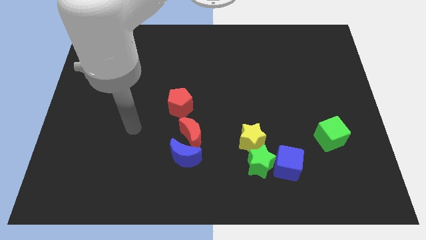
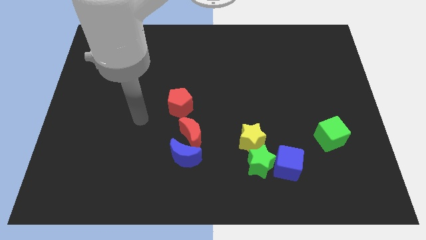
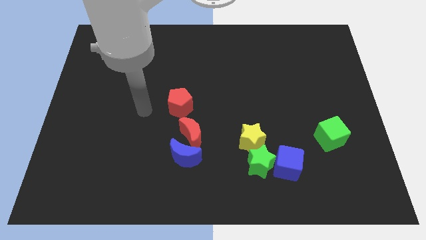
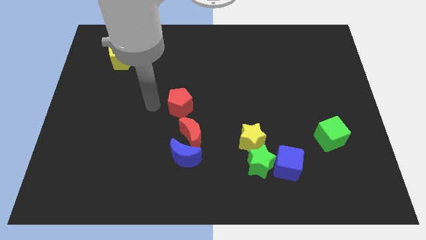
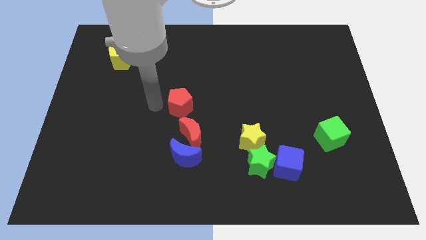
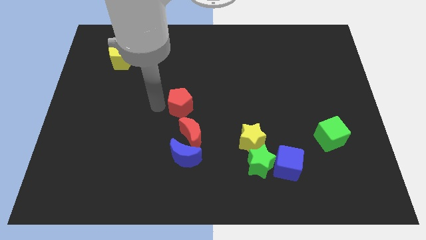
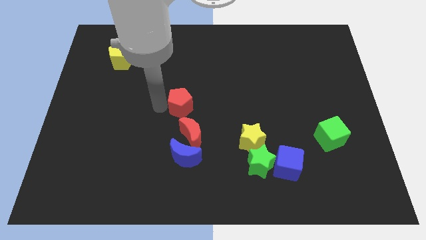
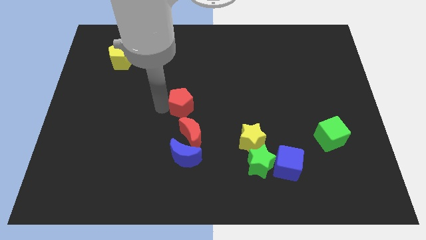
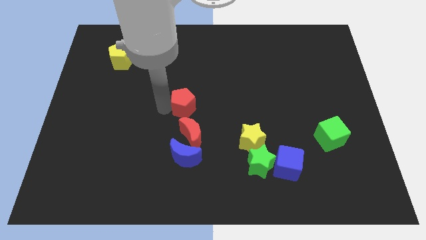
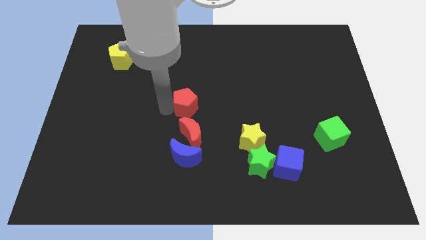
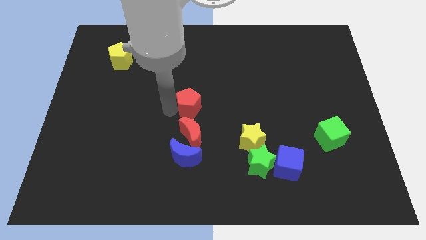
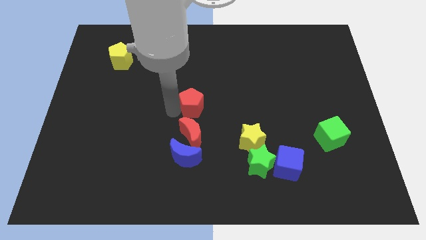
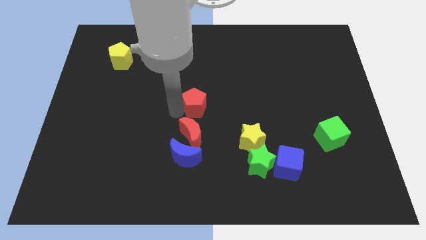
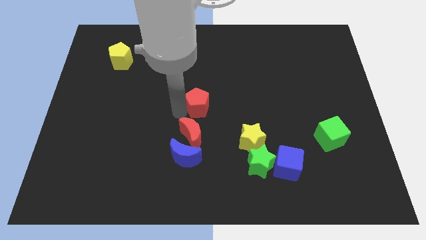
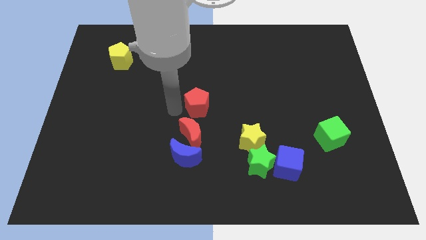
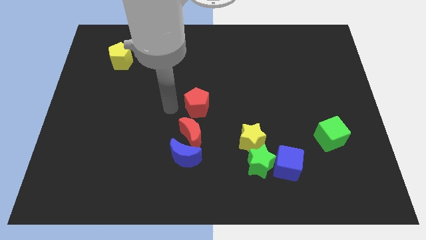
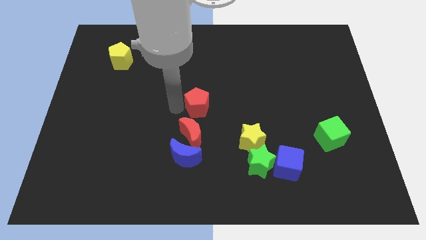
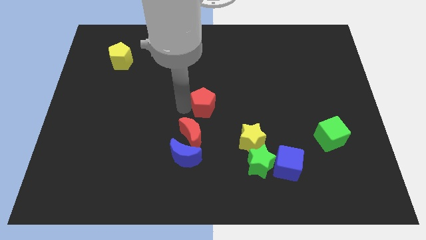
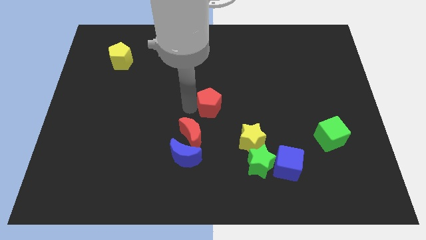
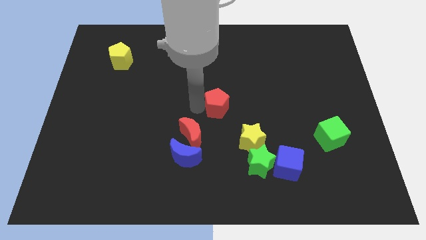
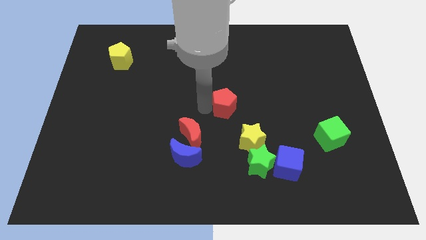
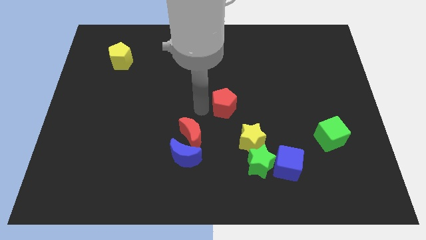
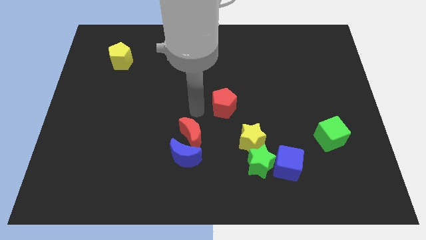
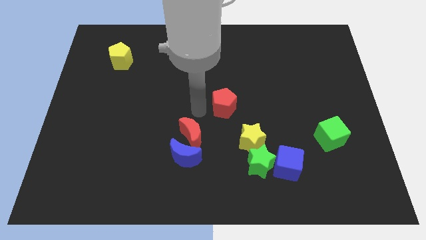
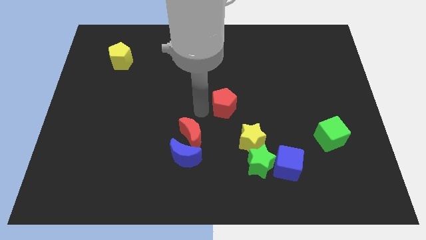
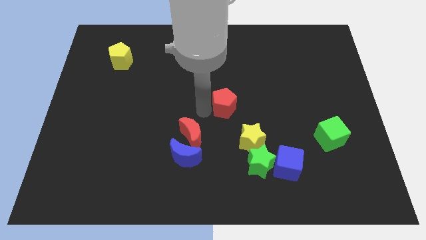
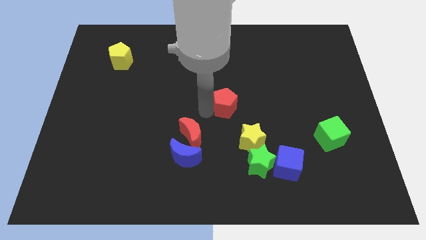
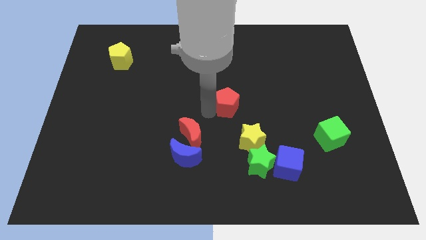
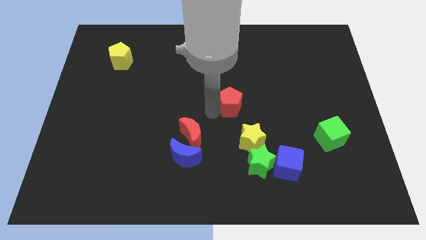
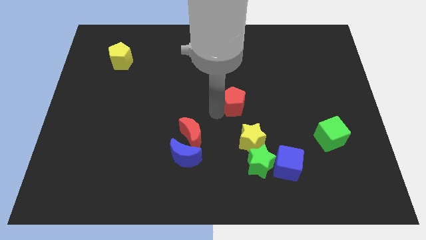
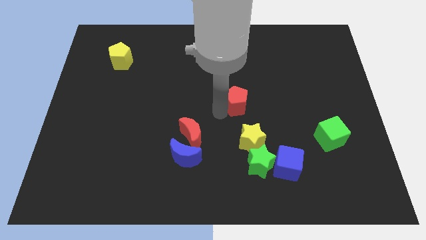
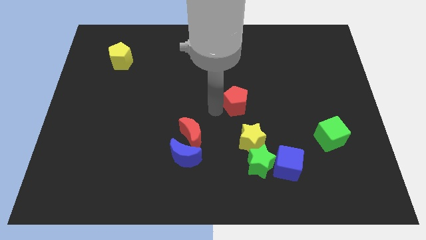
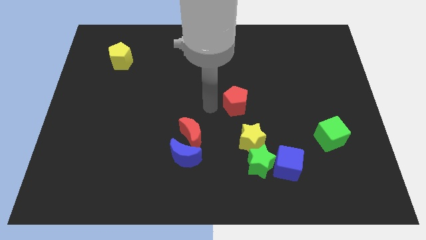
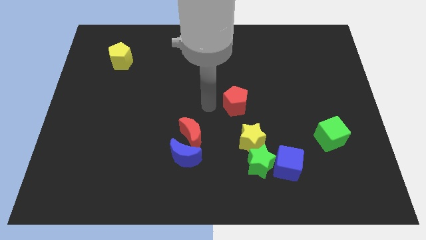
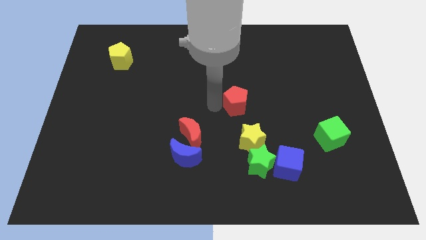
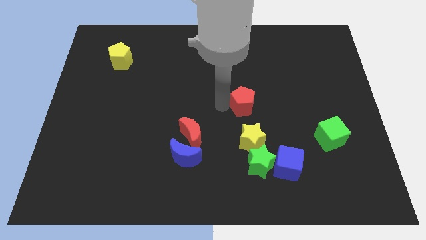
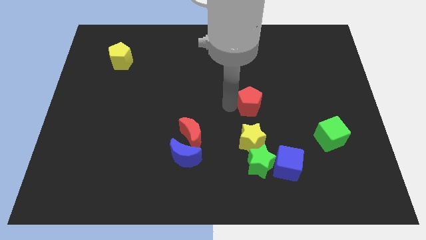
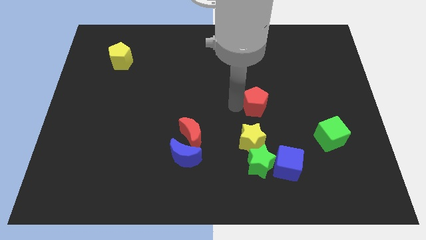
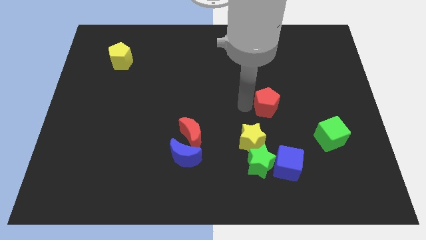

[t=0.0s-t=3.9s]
slide the red pentagon right

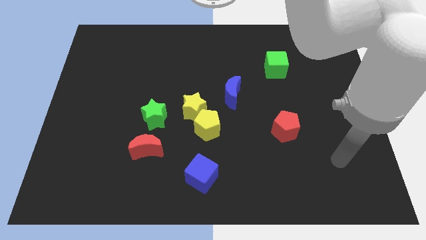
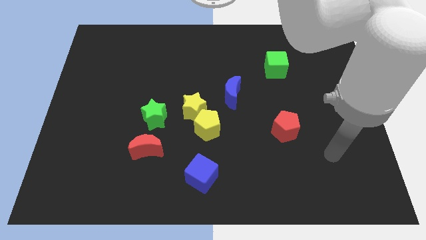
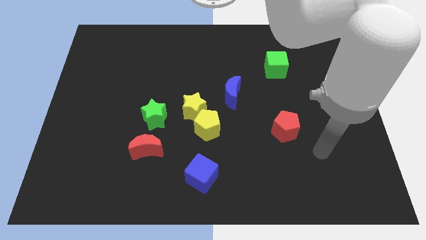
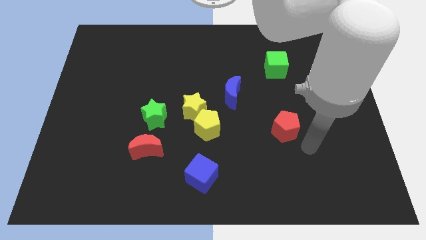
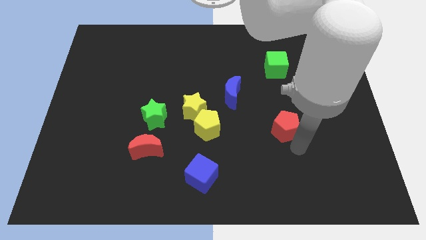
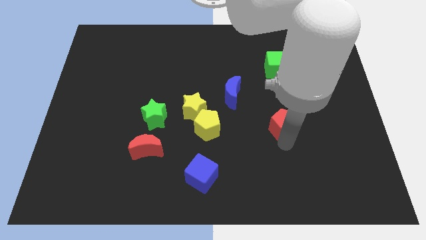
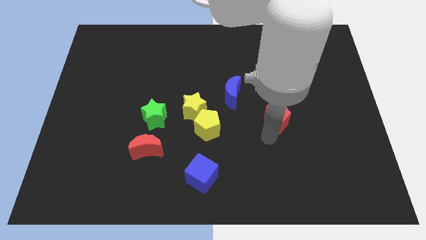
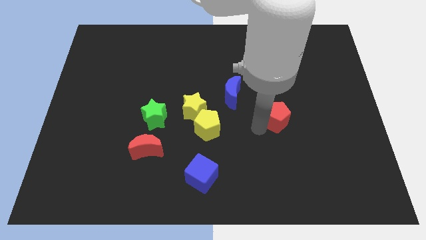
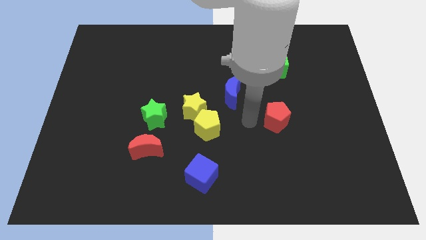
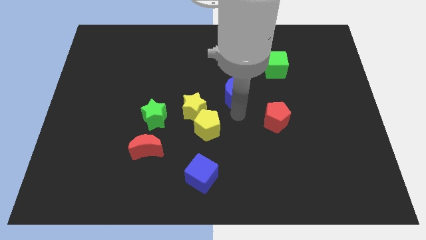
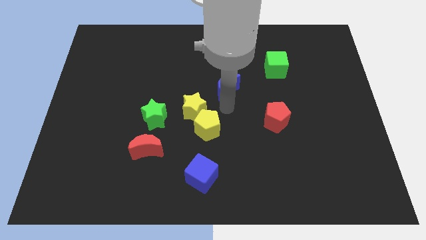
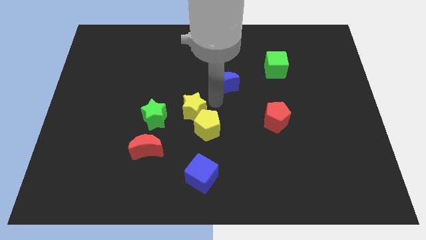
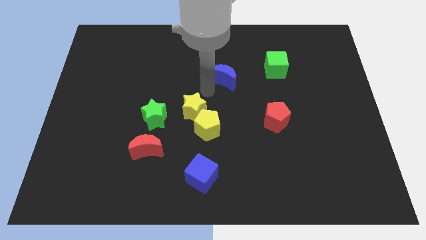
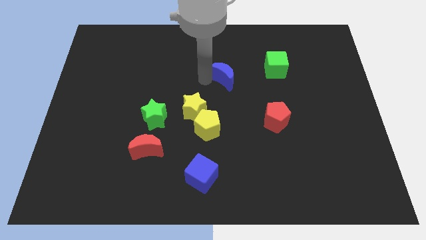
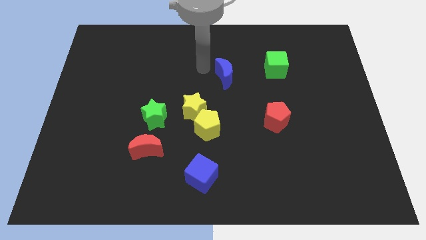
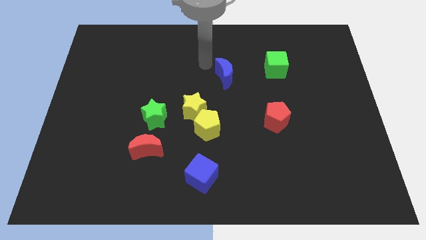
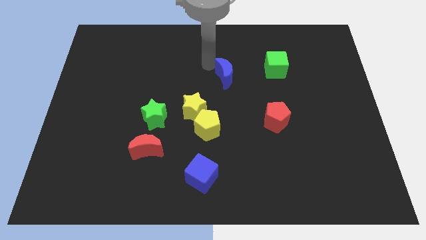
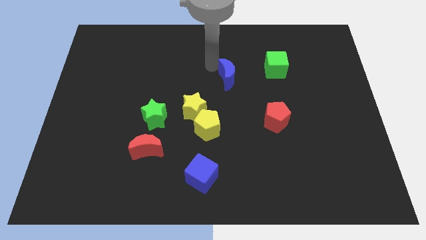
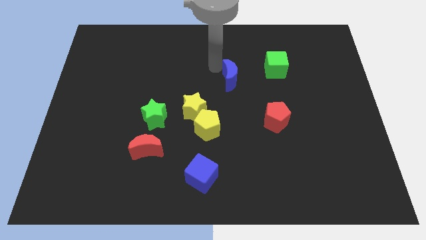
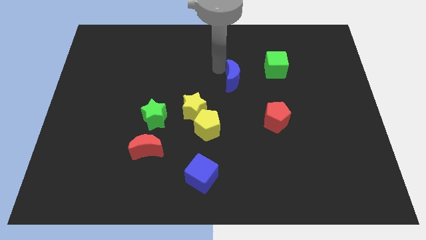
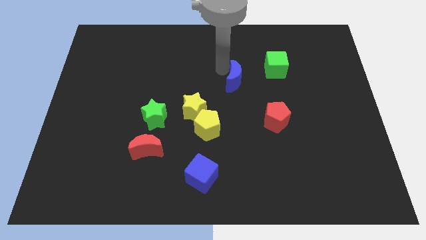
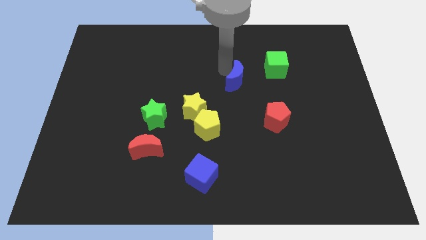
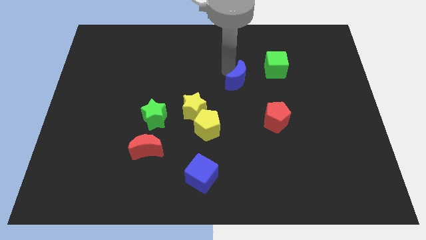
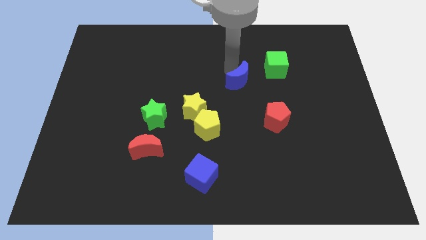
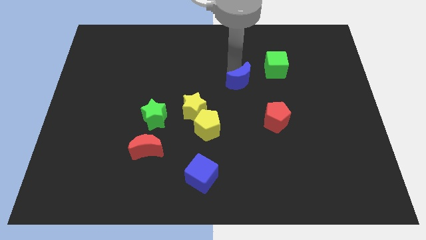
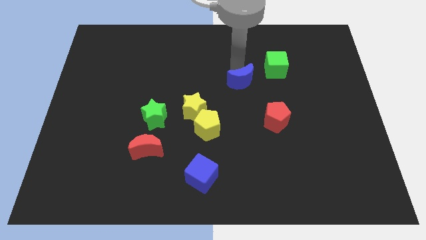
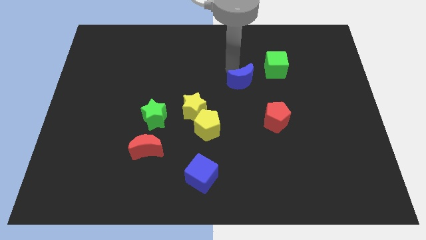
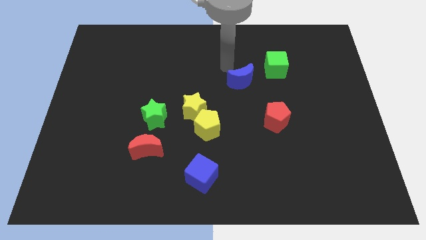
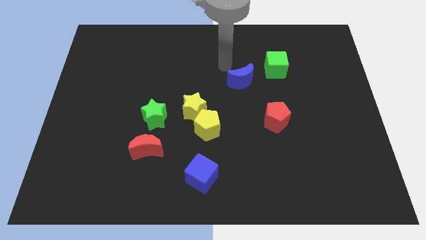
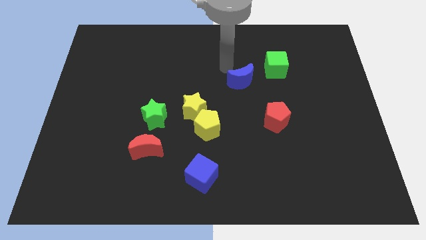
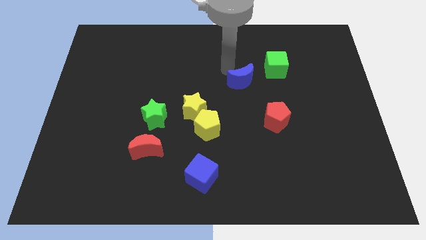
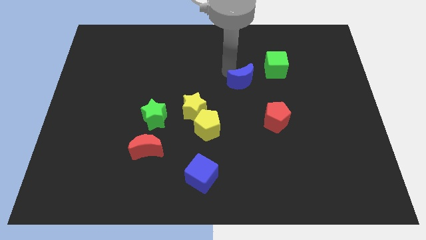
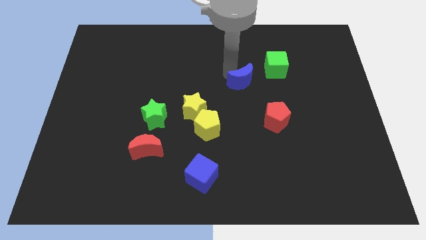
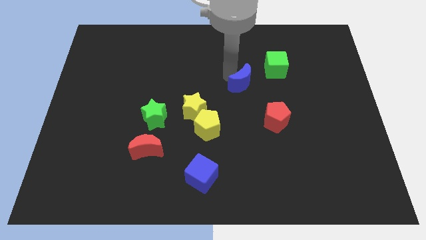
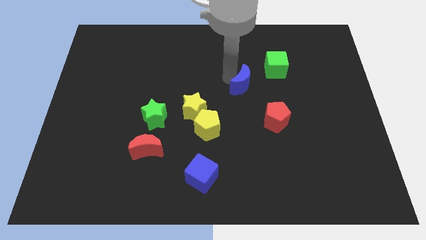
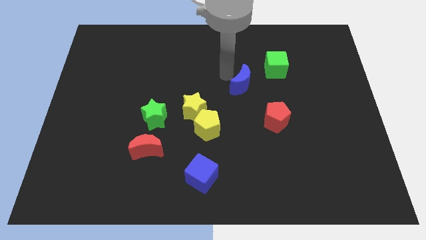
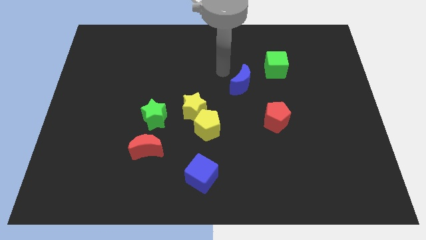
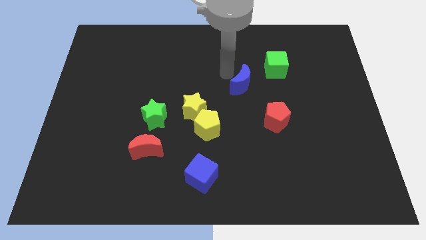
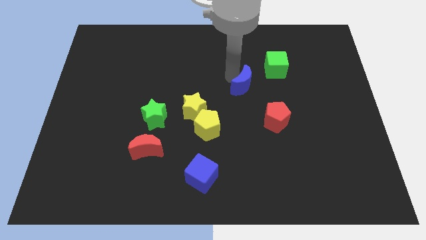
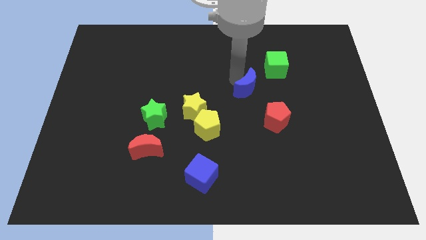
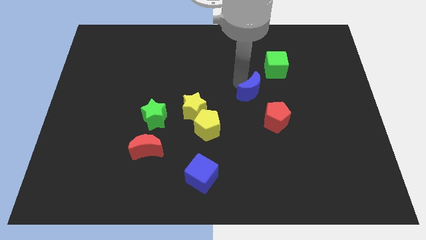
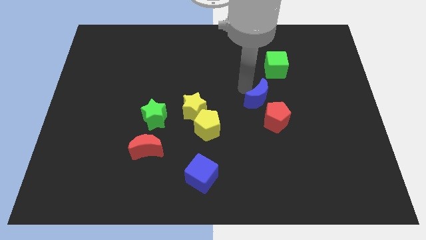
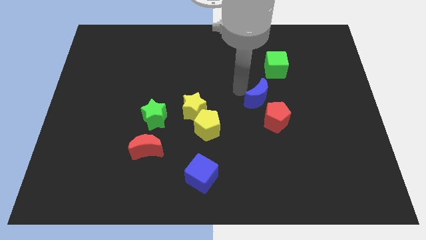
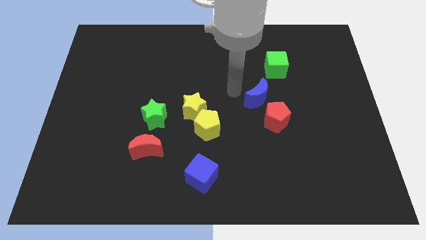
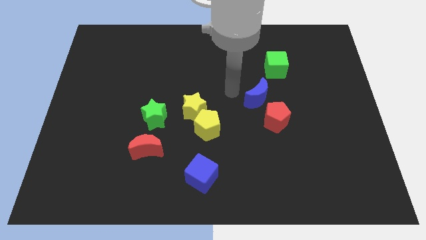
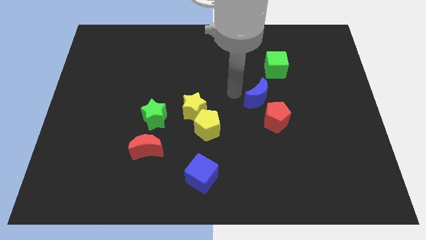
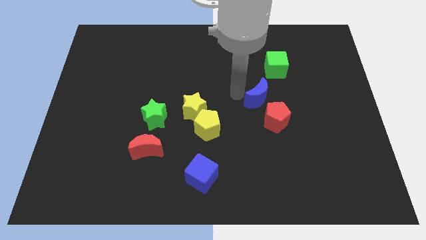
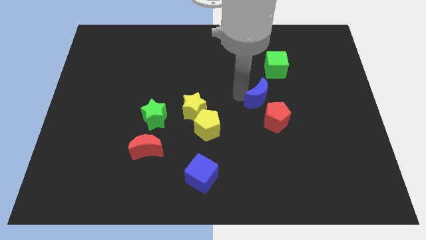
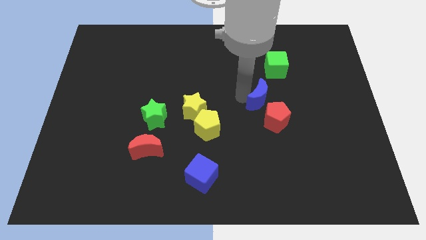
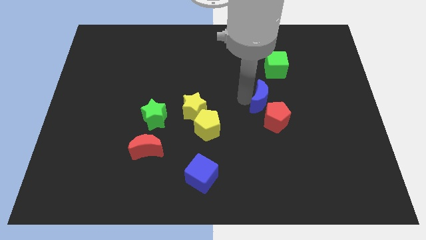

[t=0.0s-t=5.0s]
slide the blue moon slightly to the right
